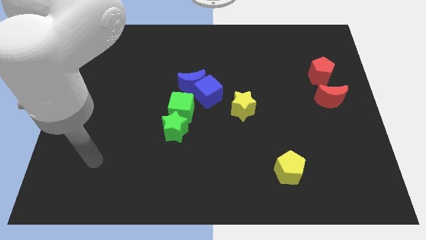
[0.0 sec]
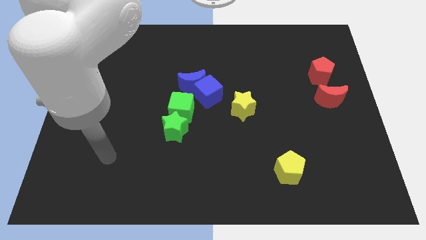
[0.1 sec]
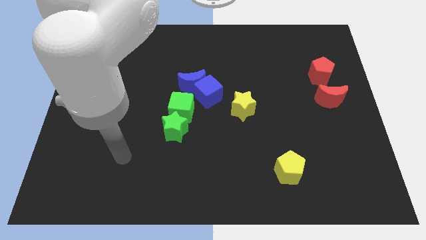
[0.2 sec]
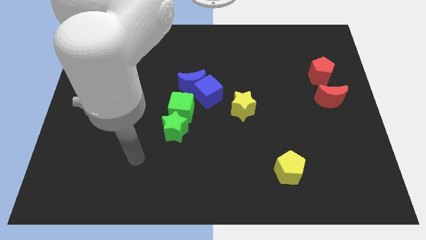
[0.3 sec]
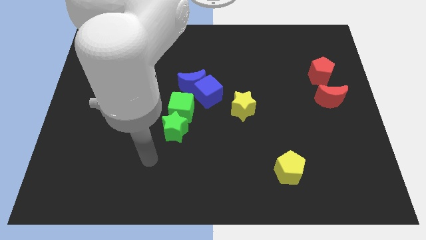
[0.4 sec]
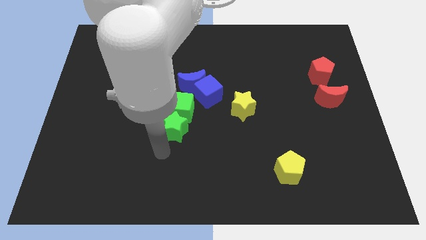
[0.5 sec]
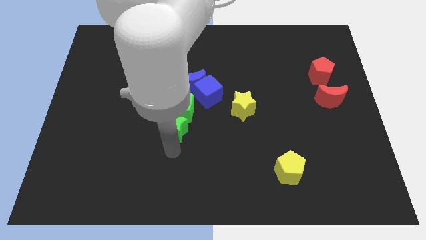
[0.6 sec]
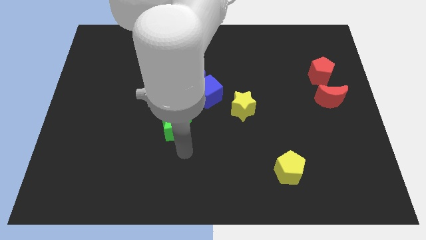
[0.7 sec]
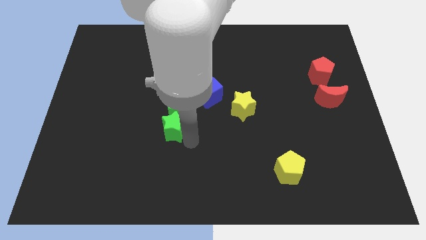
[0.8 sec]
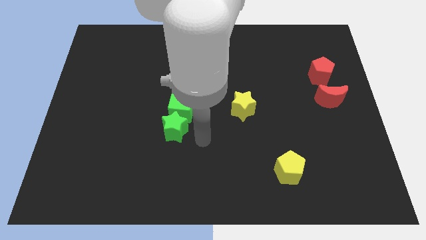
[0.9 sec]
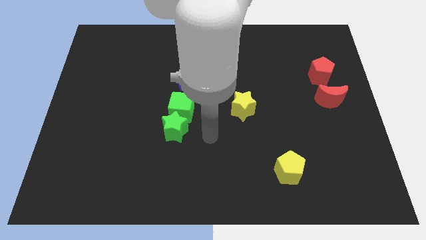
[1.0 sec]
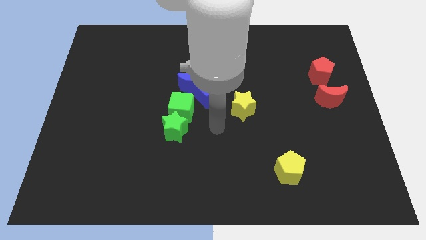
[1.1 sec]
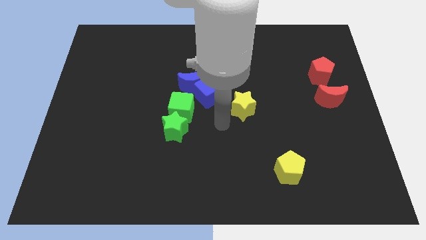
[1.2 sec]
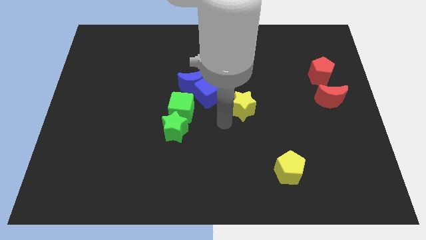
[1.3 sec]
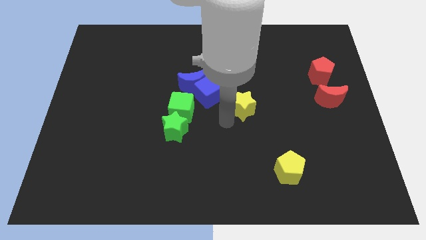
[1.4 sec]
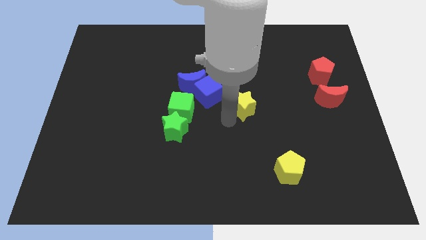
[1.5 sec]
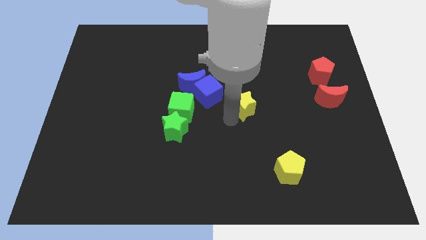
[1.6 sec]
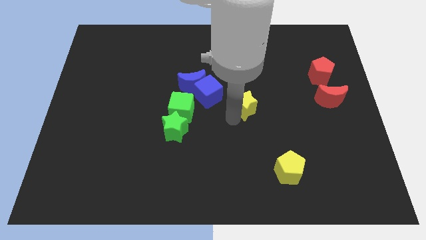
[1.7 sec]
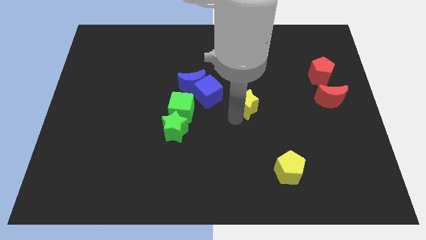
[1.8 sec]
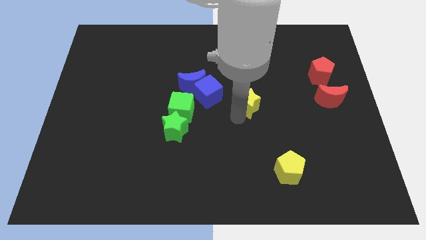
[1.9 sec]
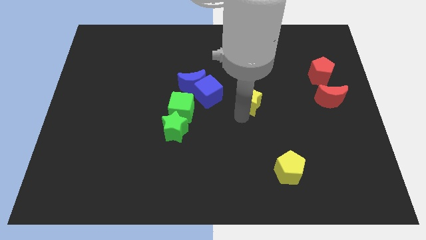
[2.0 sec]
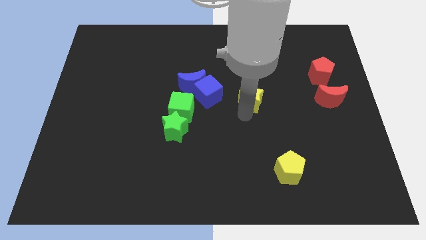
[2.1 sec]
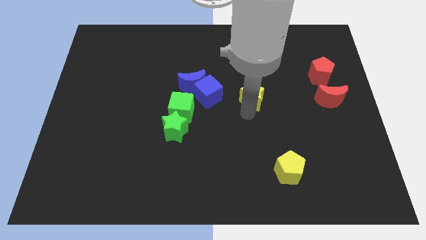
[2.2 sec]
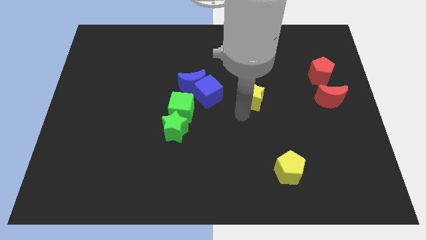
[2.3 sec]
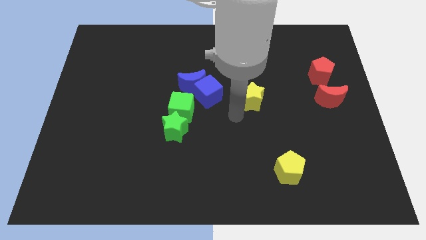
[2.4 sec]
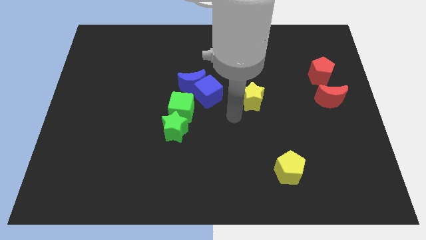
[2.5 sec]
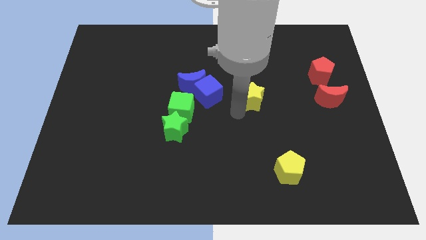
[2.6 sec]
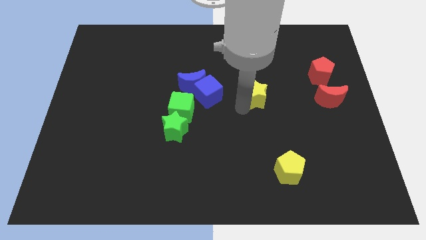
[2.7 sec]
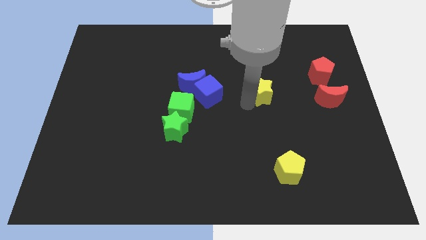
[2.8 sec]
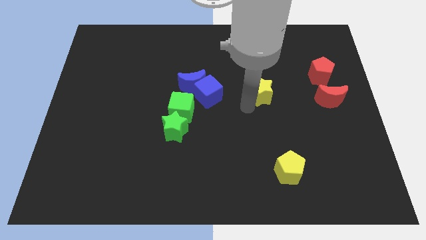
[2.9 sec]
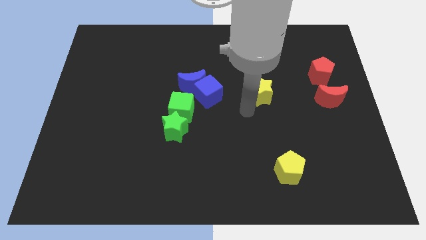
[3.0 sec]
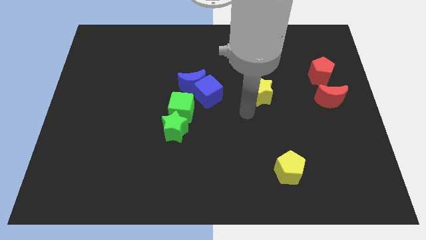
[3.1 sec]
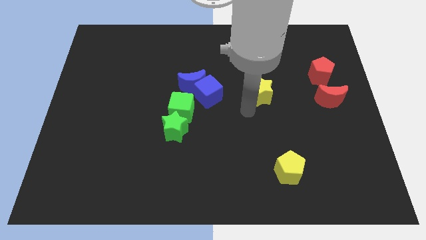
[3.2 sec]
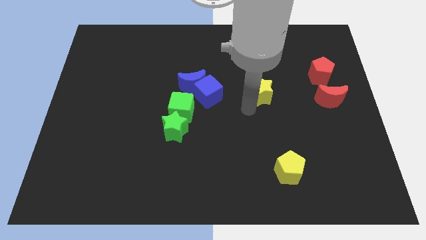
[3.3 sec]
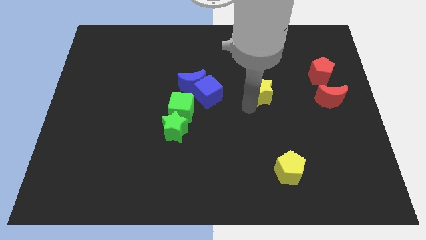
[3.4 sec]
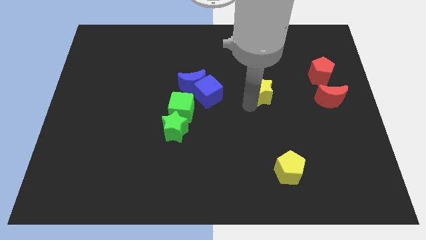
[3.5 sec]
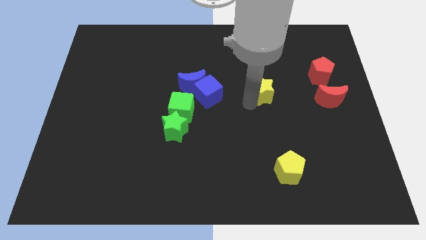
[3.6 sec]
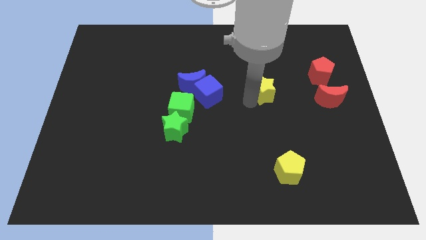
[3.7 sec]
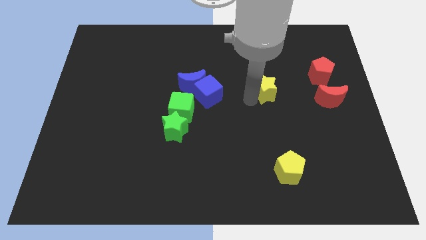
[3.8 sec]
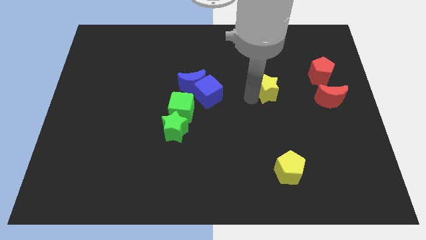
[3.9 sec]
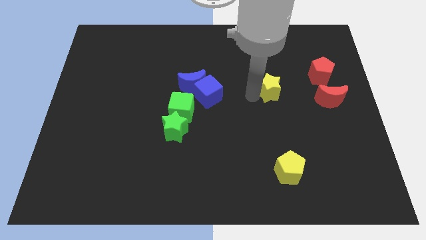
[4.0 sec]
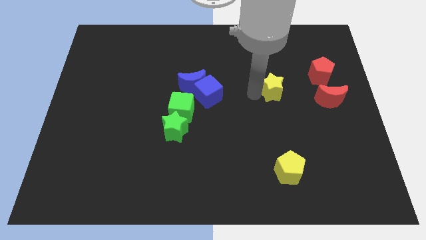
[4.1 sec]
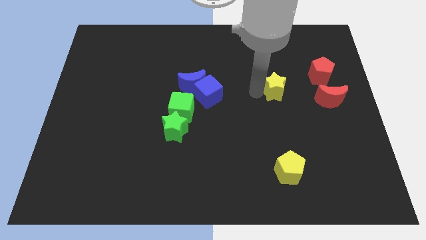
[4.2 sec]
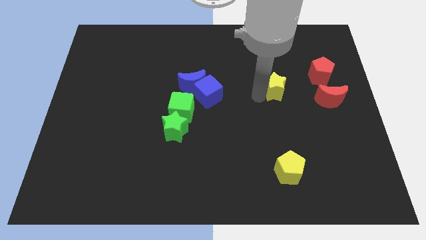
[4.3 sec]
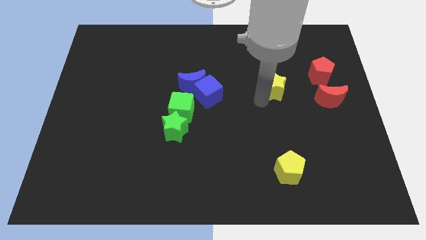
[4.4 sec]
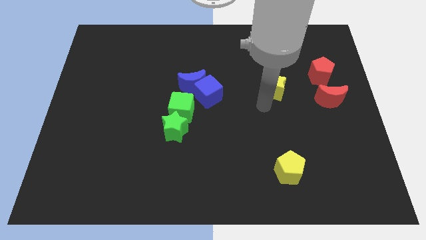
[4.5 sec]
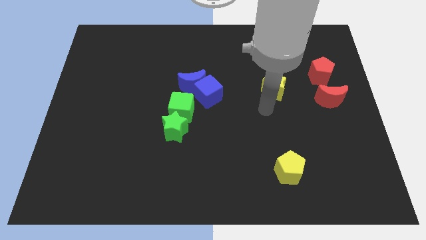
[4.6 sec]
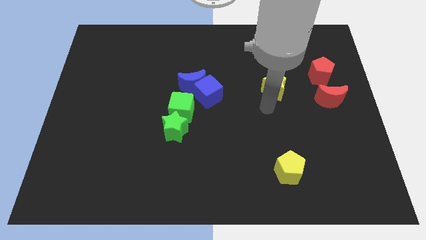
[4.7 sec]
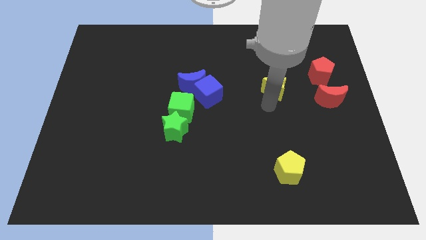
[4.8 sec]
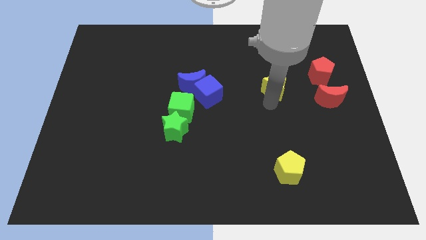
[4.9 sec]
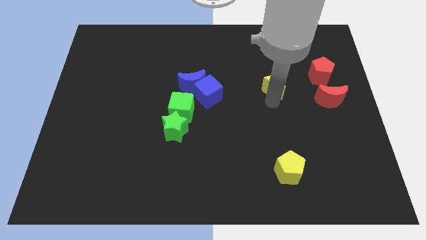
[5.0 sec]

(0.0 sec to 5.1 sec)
push the yellow star left of the red pentagon

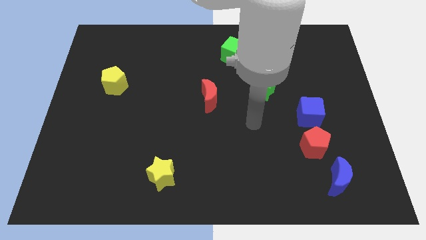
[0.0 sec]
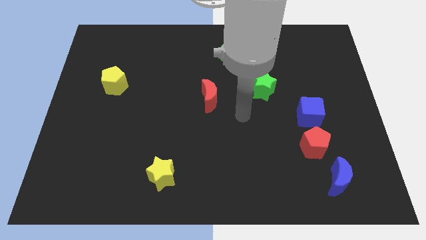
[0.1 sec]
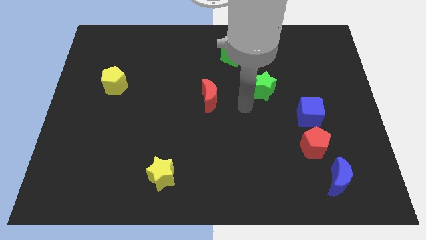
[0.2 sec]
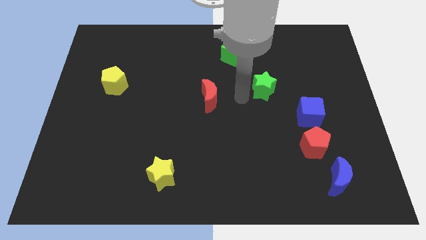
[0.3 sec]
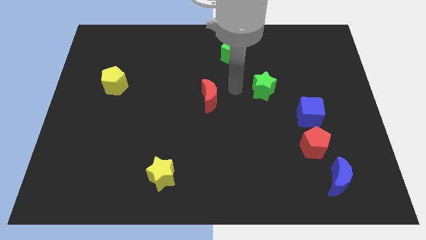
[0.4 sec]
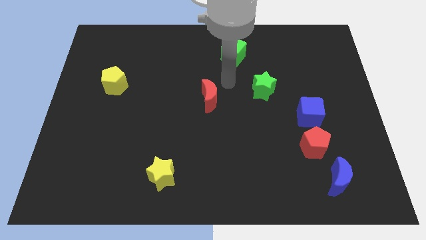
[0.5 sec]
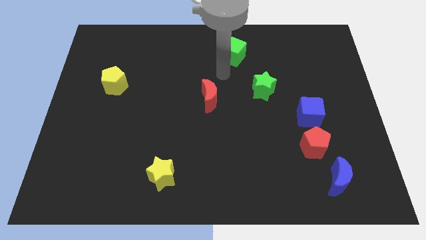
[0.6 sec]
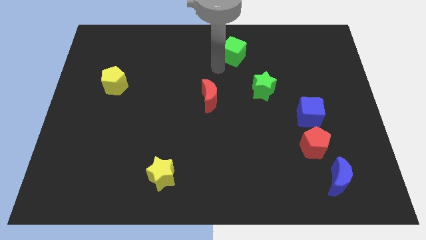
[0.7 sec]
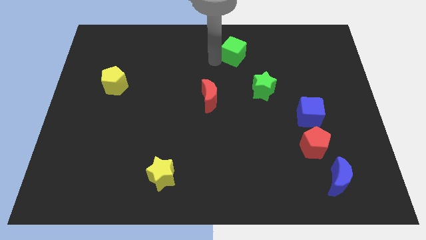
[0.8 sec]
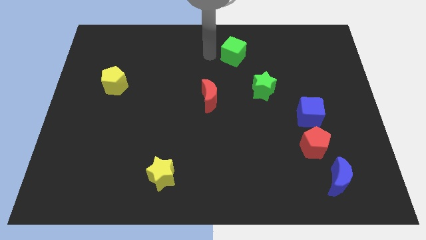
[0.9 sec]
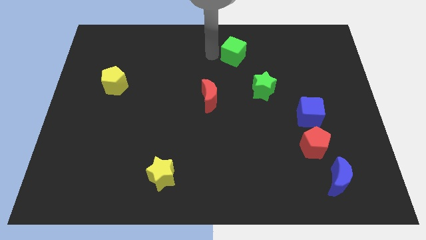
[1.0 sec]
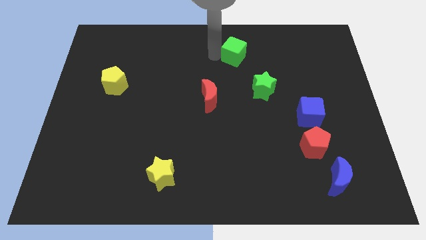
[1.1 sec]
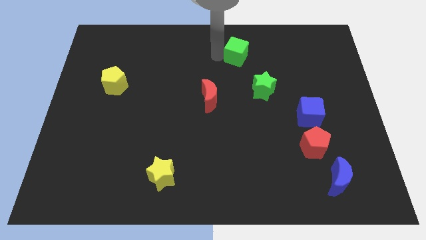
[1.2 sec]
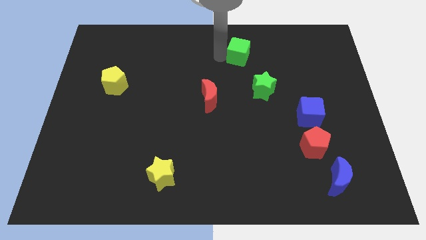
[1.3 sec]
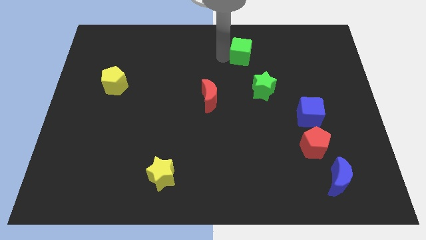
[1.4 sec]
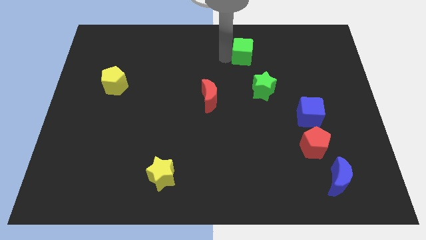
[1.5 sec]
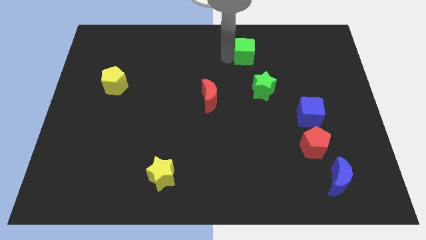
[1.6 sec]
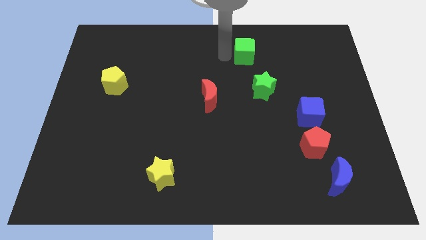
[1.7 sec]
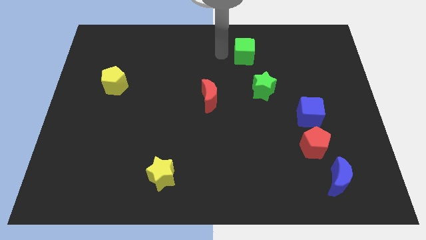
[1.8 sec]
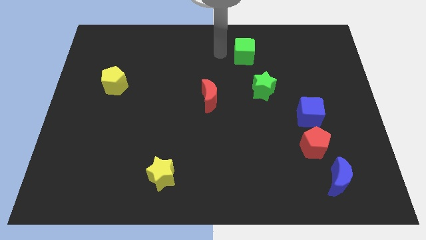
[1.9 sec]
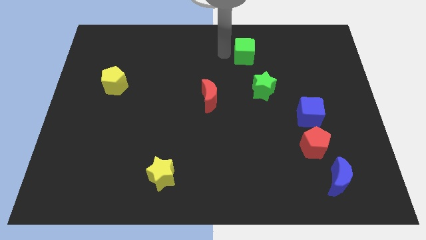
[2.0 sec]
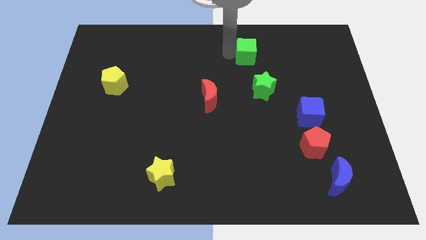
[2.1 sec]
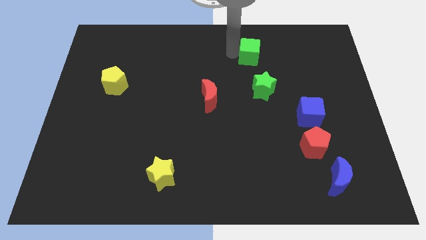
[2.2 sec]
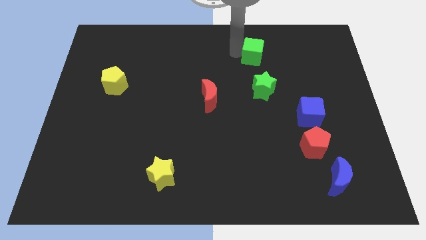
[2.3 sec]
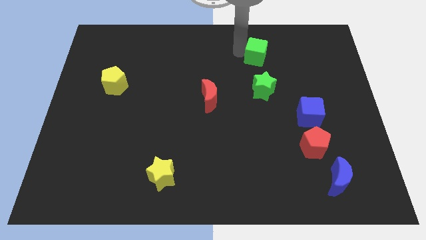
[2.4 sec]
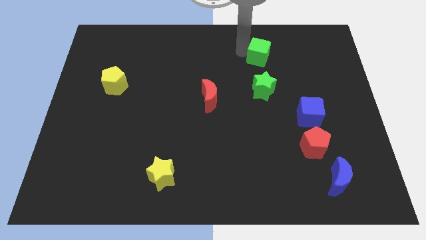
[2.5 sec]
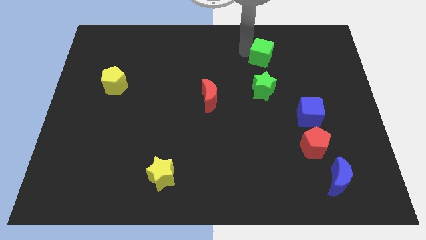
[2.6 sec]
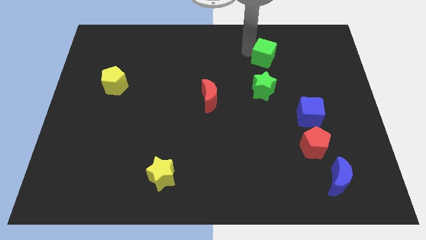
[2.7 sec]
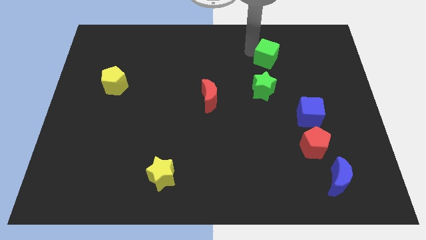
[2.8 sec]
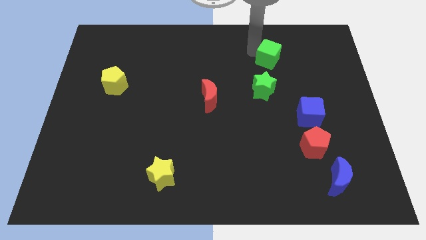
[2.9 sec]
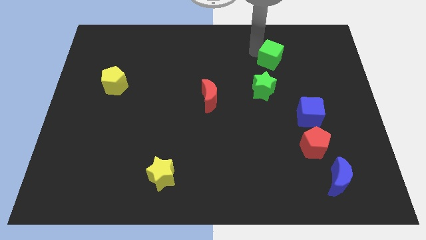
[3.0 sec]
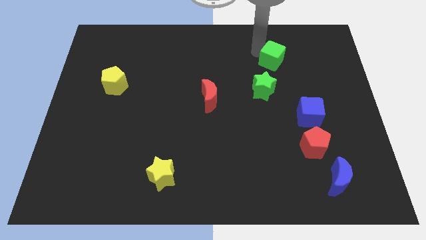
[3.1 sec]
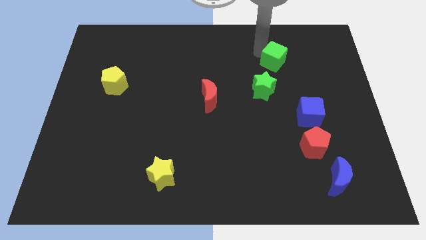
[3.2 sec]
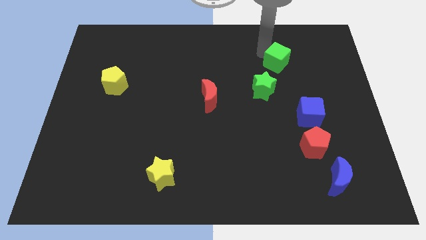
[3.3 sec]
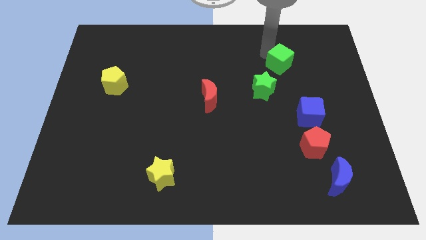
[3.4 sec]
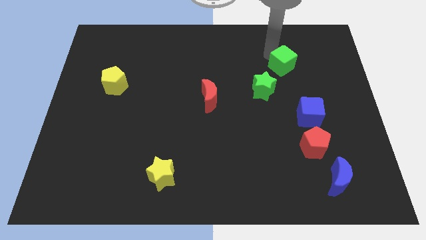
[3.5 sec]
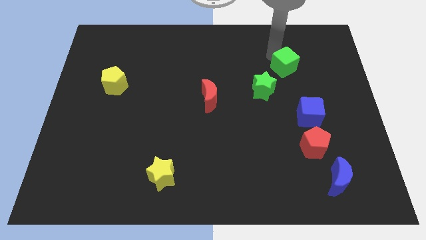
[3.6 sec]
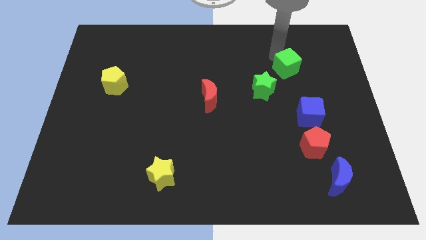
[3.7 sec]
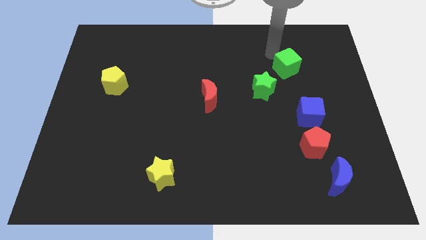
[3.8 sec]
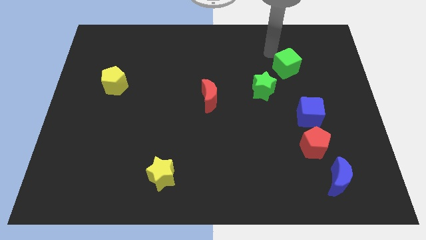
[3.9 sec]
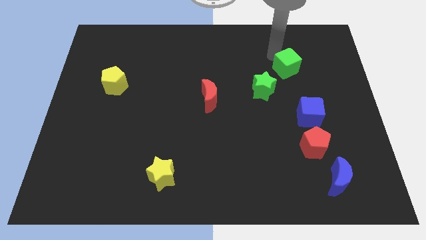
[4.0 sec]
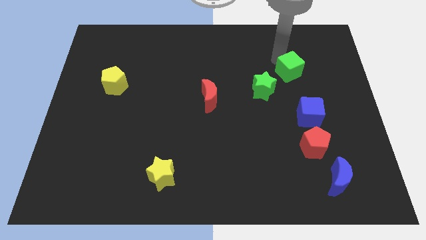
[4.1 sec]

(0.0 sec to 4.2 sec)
push the green cube above the blue cube
